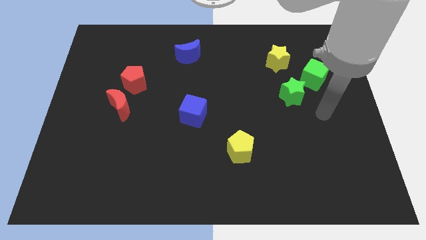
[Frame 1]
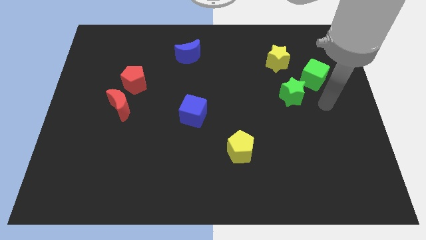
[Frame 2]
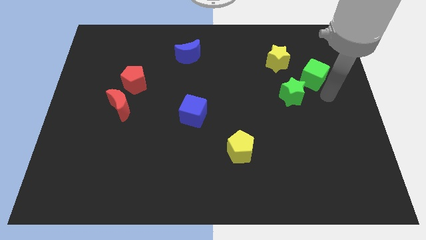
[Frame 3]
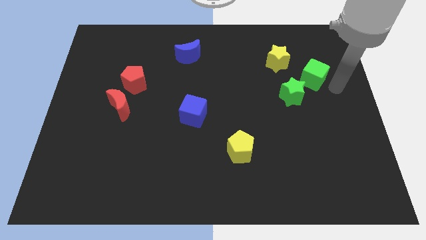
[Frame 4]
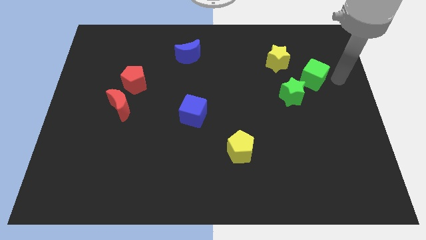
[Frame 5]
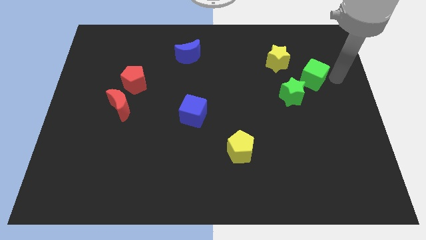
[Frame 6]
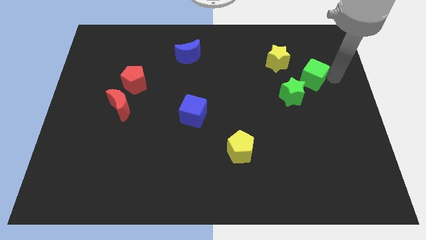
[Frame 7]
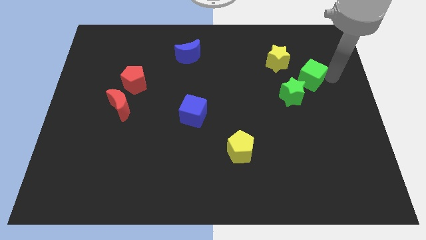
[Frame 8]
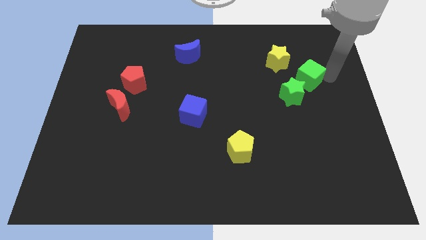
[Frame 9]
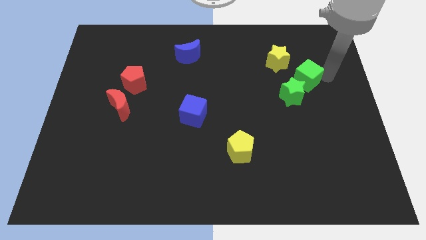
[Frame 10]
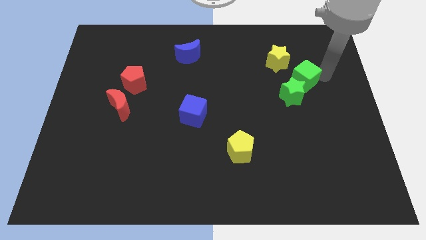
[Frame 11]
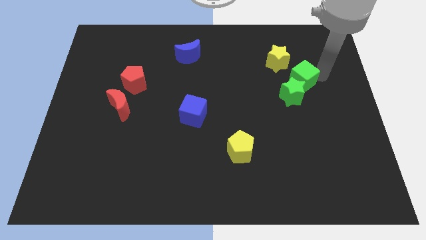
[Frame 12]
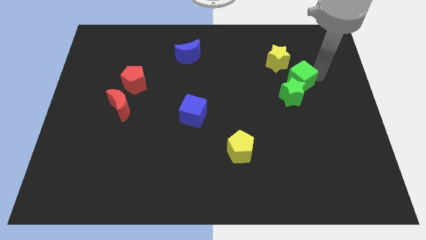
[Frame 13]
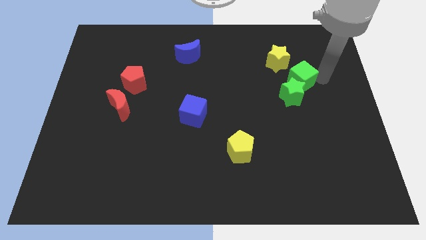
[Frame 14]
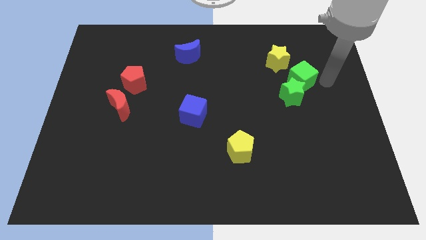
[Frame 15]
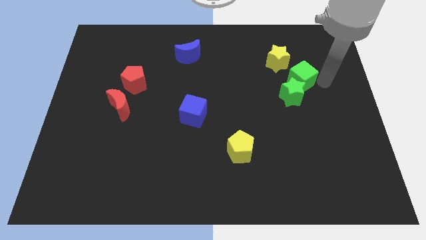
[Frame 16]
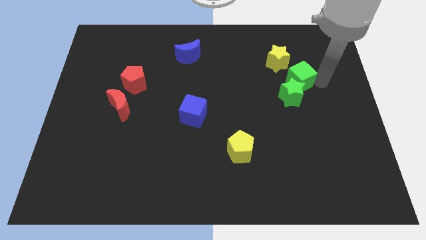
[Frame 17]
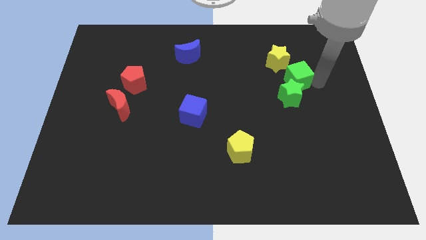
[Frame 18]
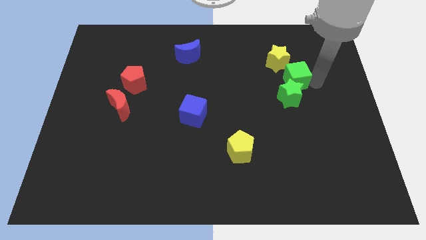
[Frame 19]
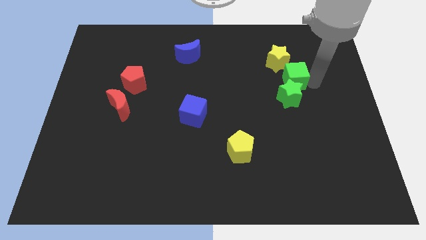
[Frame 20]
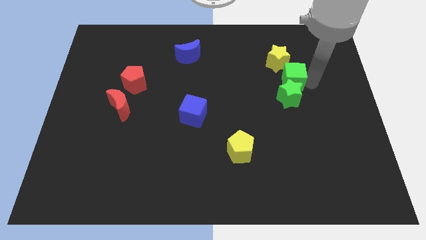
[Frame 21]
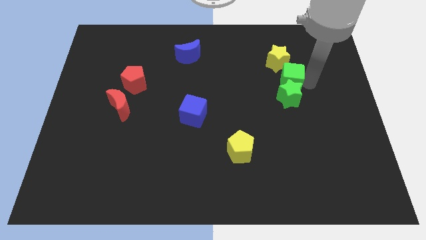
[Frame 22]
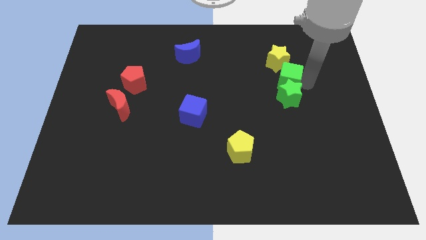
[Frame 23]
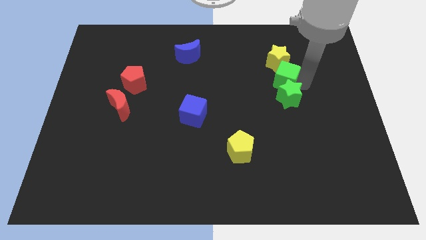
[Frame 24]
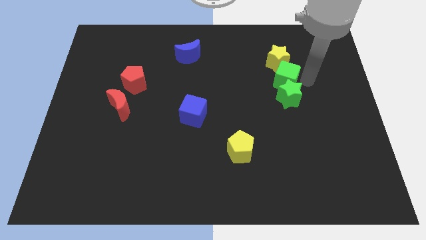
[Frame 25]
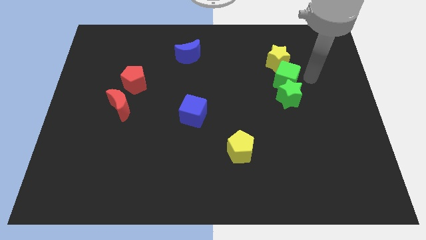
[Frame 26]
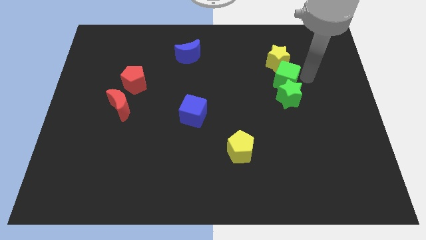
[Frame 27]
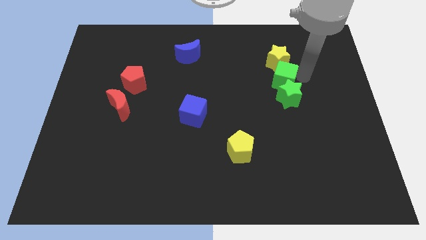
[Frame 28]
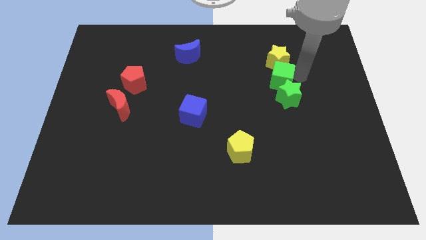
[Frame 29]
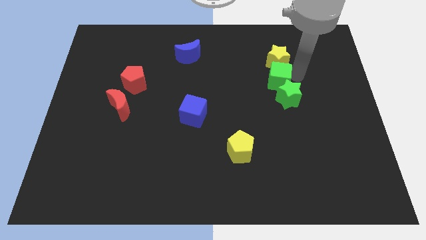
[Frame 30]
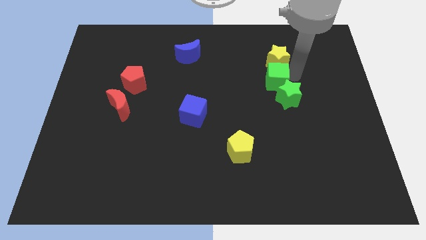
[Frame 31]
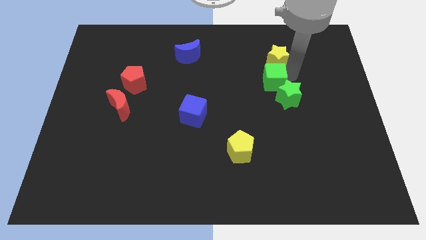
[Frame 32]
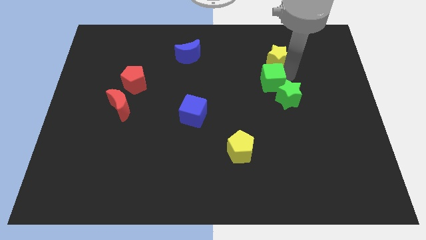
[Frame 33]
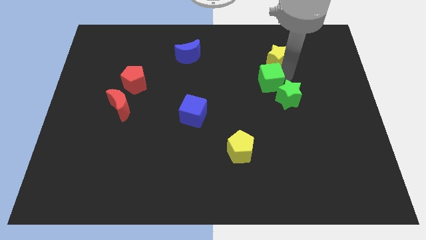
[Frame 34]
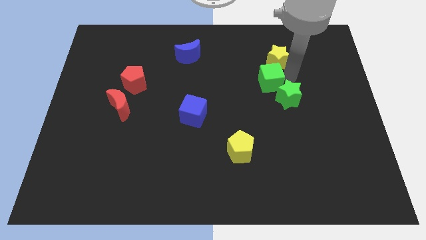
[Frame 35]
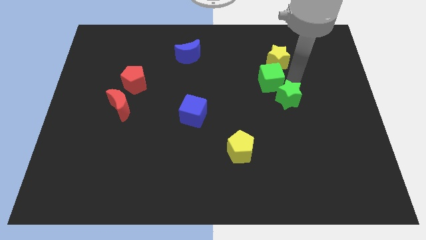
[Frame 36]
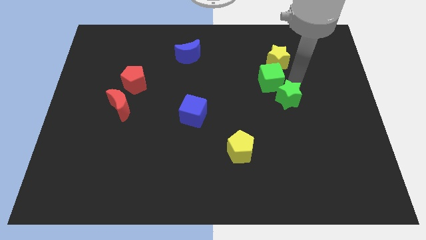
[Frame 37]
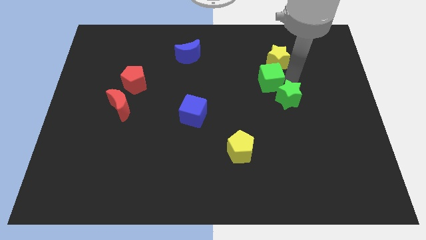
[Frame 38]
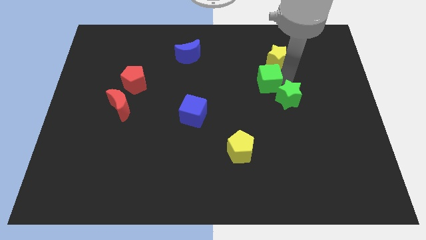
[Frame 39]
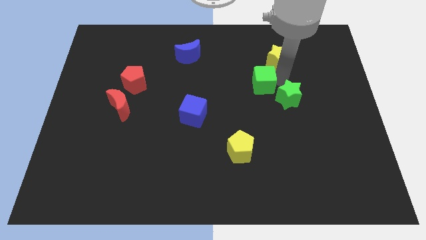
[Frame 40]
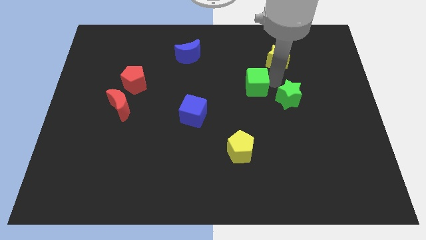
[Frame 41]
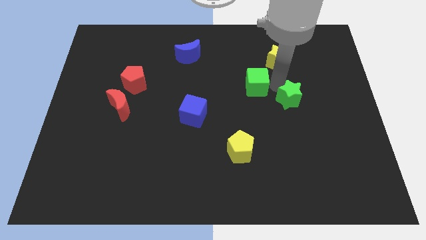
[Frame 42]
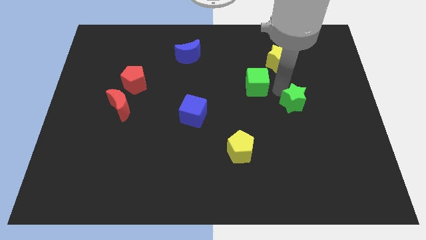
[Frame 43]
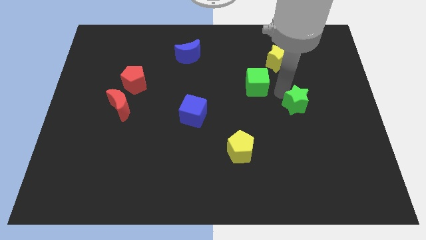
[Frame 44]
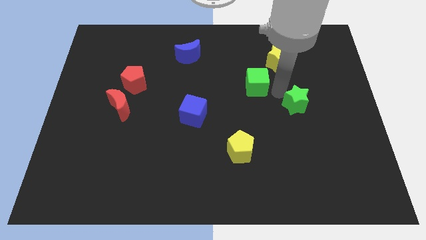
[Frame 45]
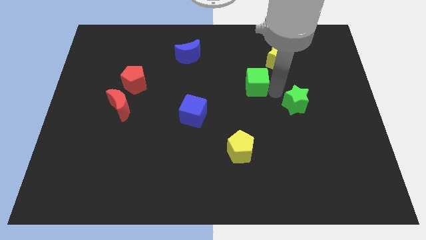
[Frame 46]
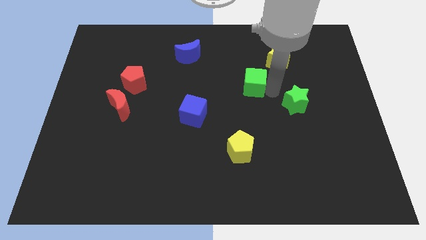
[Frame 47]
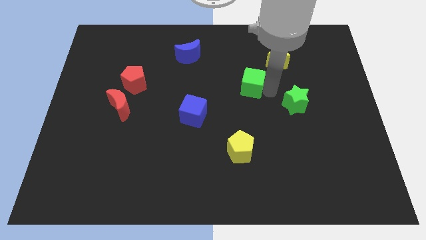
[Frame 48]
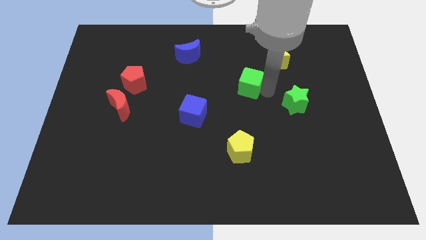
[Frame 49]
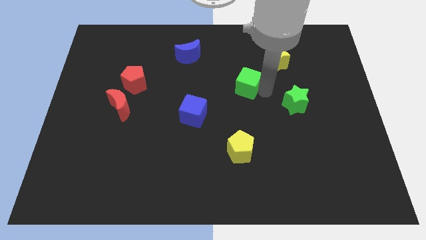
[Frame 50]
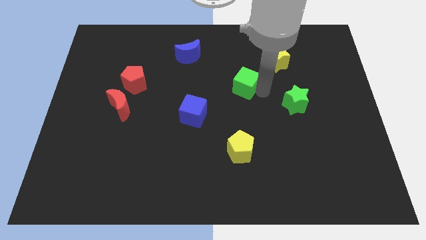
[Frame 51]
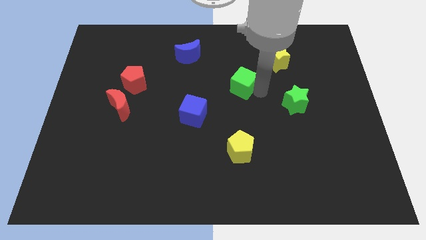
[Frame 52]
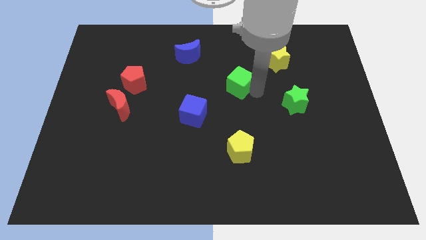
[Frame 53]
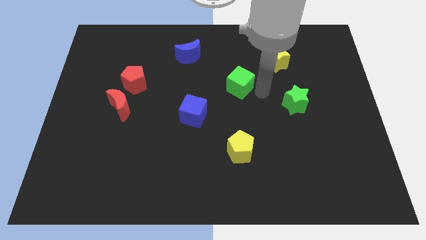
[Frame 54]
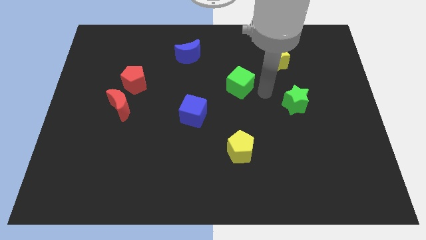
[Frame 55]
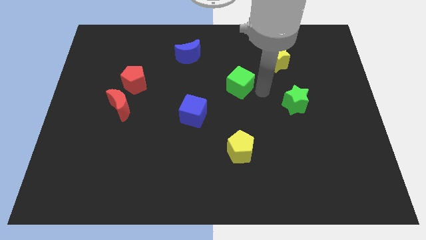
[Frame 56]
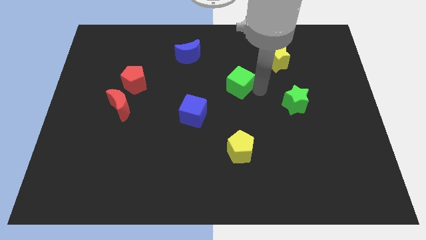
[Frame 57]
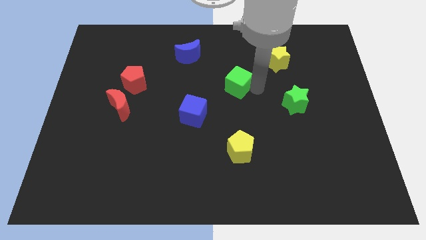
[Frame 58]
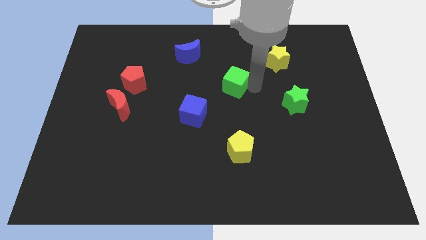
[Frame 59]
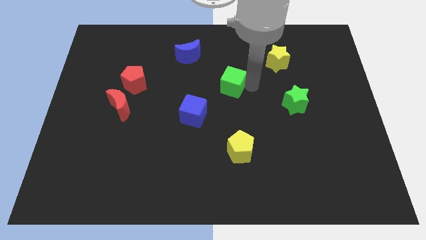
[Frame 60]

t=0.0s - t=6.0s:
slide the green cube left

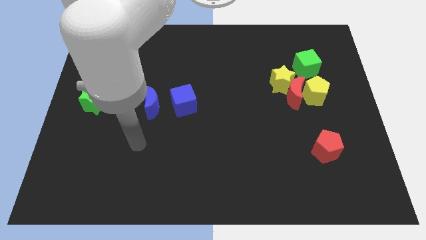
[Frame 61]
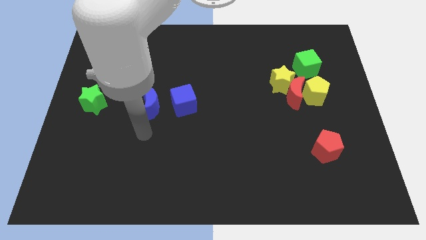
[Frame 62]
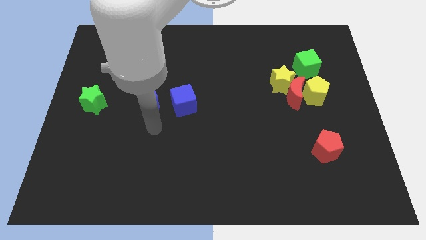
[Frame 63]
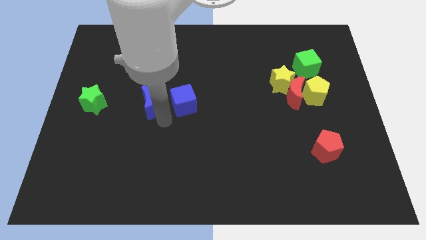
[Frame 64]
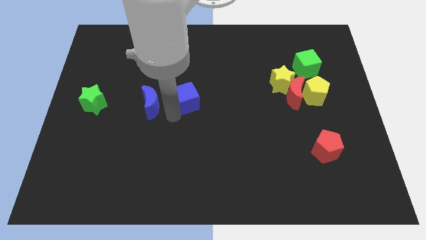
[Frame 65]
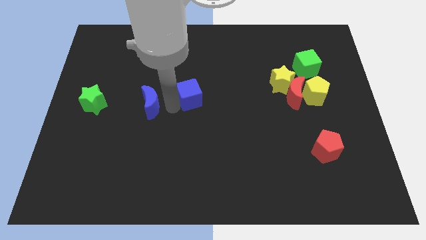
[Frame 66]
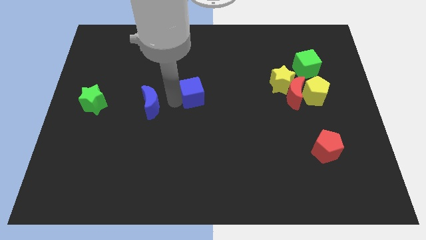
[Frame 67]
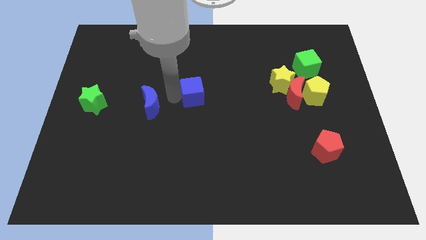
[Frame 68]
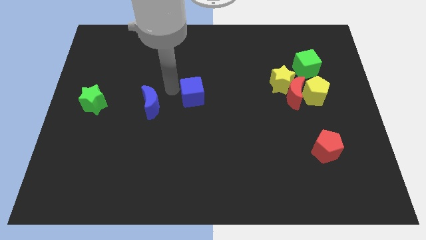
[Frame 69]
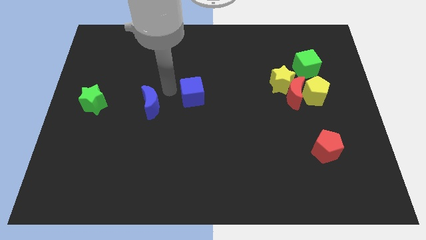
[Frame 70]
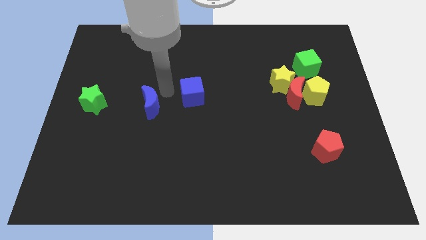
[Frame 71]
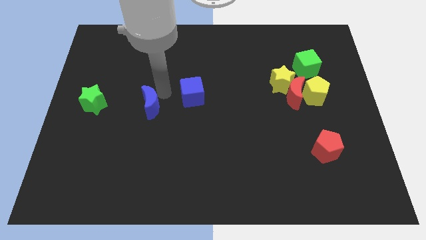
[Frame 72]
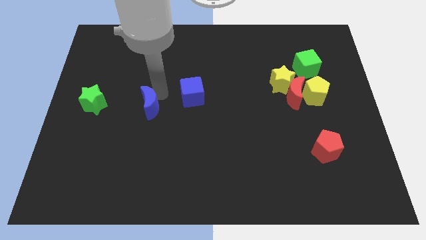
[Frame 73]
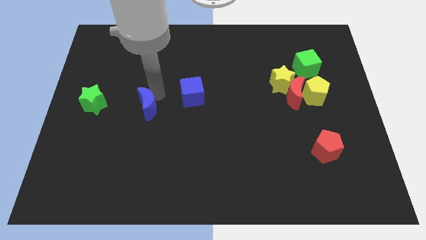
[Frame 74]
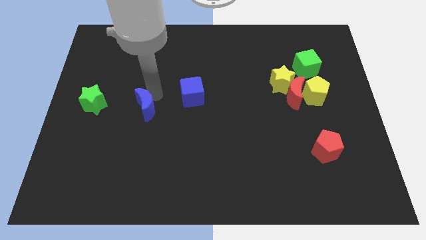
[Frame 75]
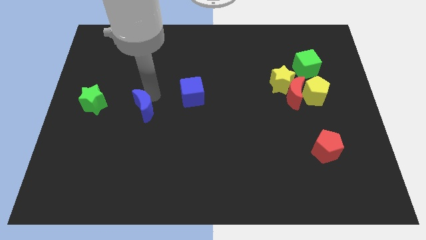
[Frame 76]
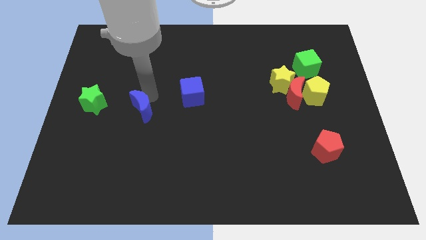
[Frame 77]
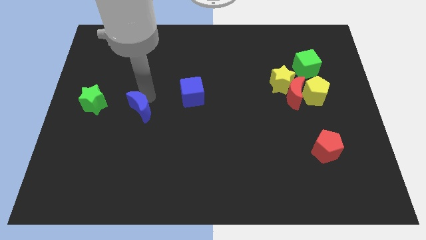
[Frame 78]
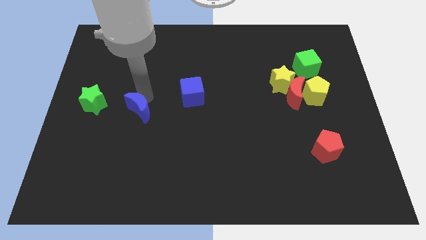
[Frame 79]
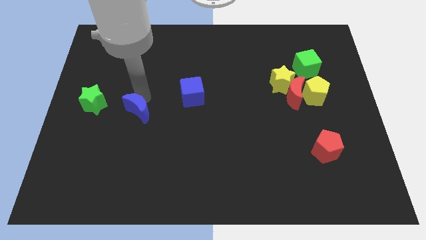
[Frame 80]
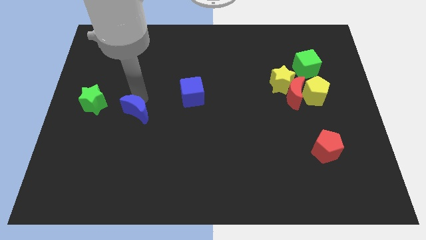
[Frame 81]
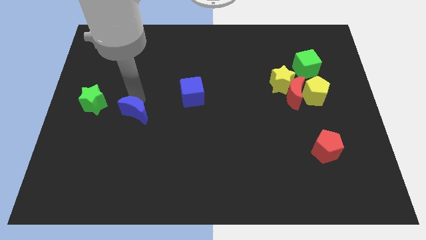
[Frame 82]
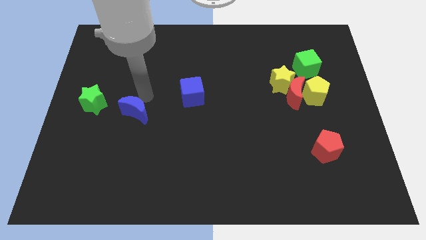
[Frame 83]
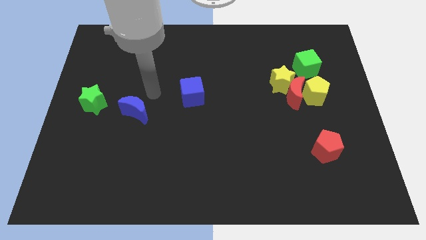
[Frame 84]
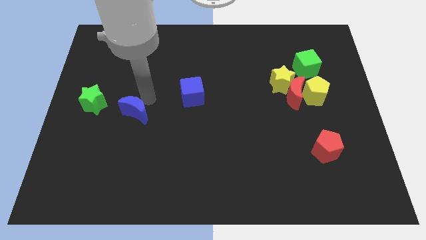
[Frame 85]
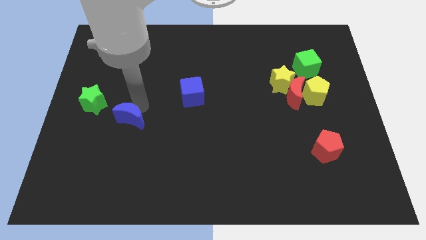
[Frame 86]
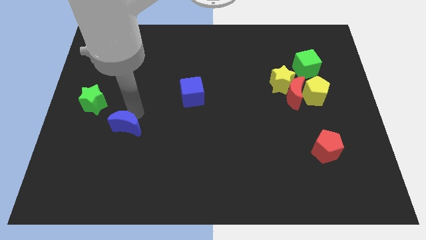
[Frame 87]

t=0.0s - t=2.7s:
slide the blue moon slightly down and to the left diagonally
